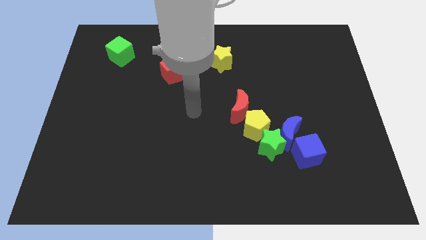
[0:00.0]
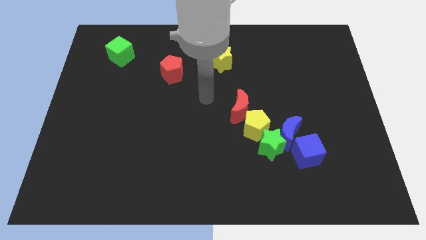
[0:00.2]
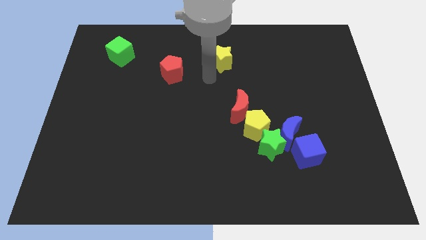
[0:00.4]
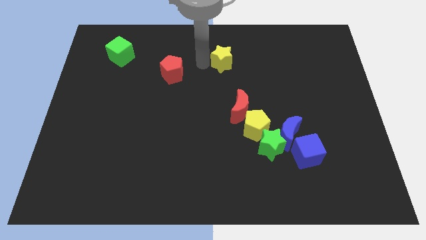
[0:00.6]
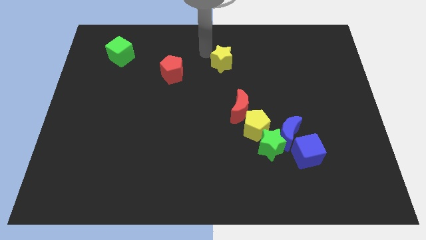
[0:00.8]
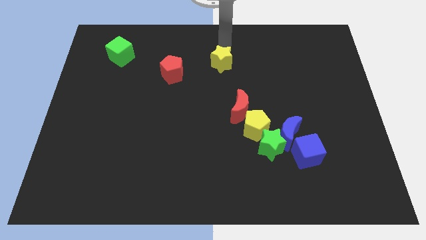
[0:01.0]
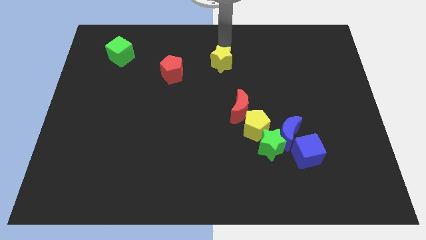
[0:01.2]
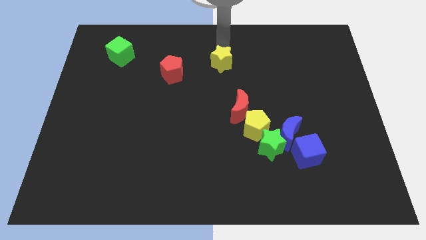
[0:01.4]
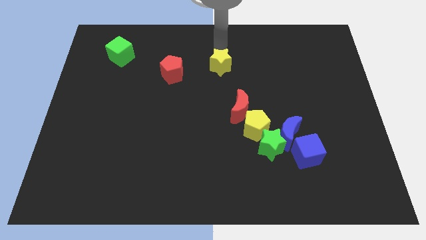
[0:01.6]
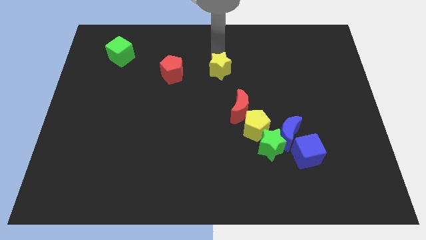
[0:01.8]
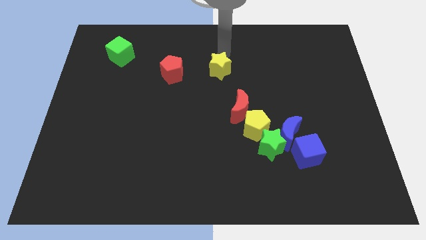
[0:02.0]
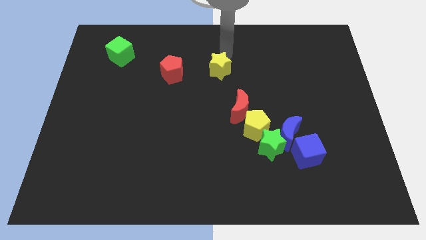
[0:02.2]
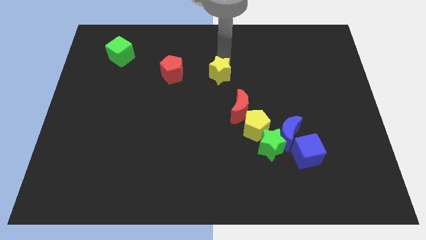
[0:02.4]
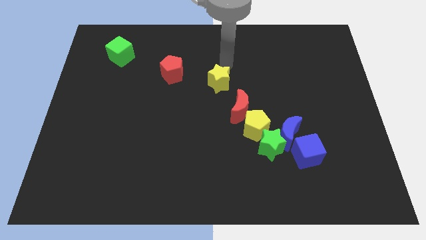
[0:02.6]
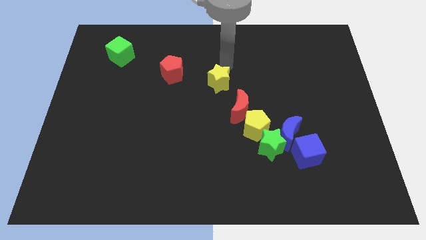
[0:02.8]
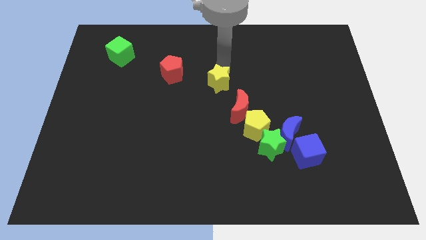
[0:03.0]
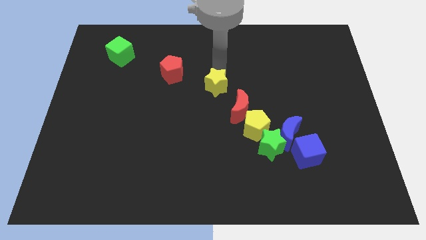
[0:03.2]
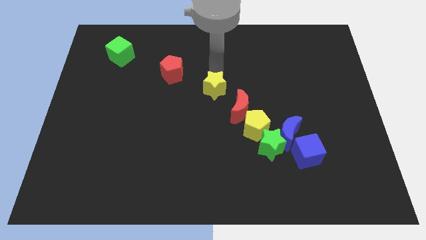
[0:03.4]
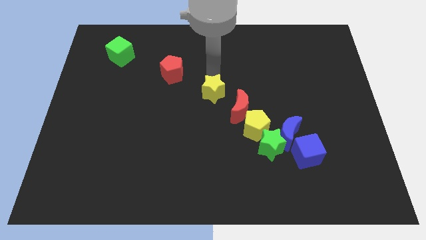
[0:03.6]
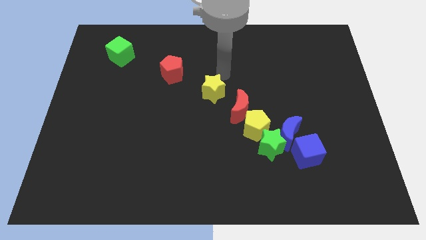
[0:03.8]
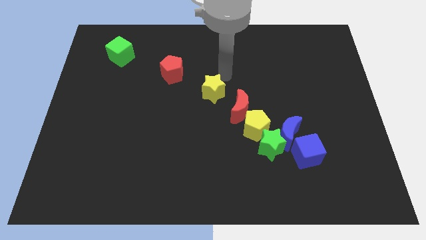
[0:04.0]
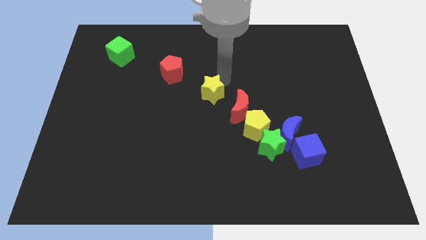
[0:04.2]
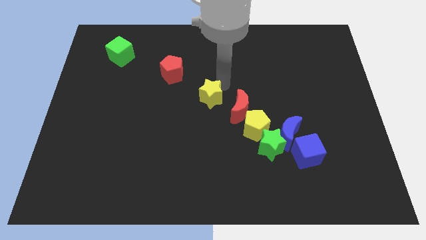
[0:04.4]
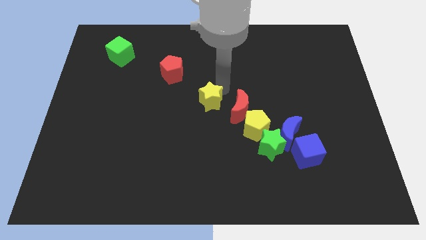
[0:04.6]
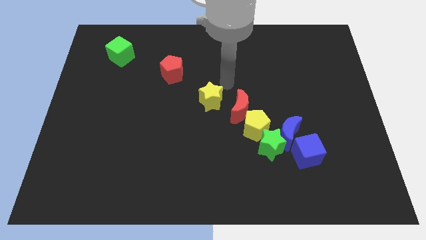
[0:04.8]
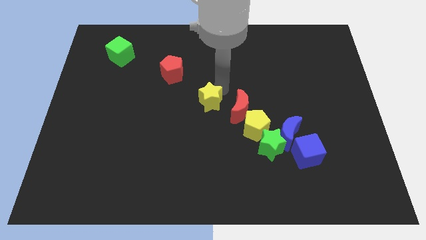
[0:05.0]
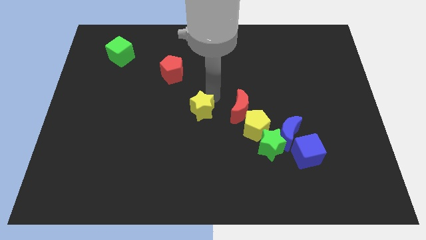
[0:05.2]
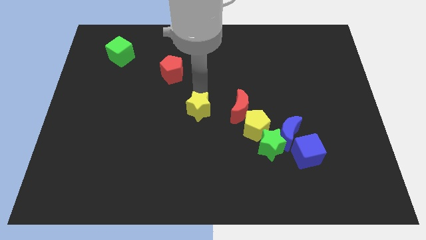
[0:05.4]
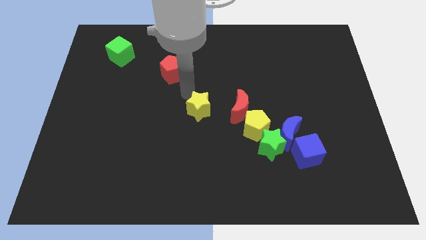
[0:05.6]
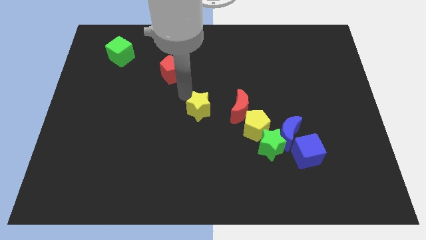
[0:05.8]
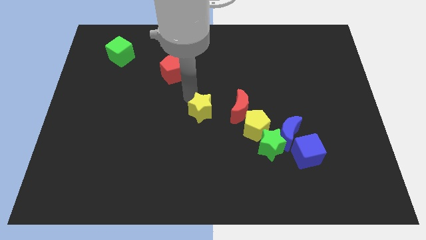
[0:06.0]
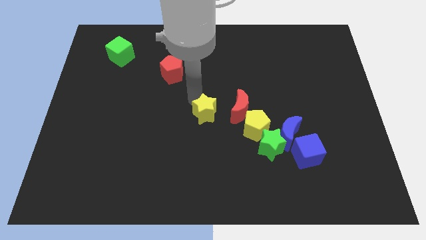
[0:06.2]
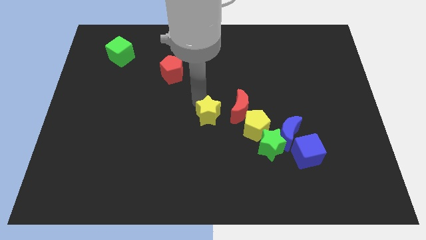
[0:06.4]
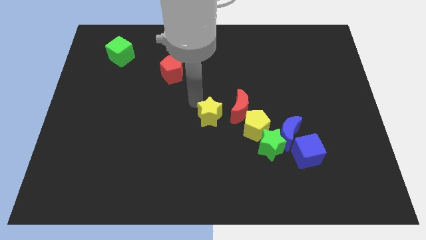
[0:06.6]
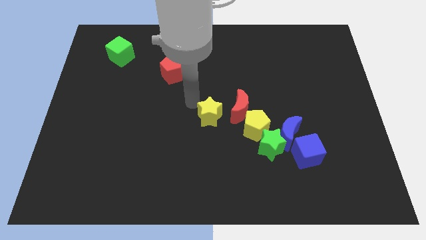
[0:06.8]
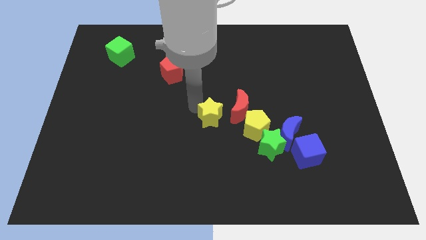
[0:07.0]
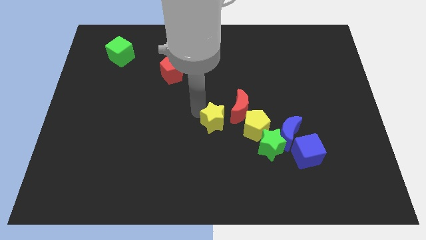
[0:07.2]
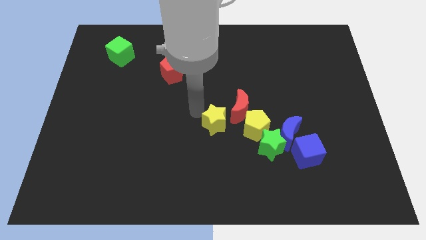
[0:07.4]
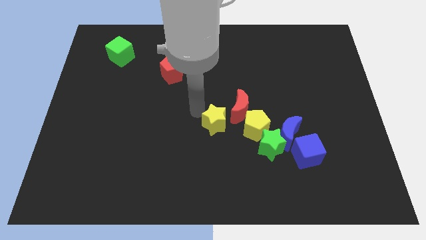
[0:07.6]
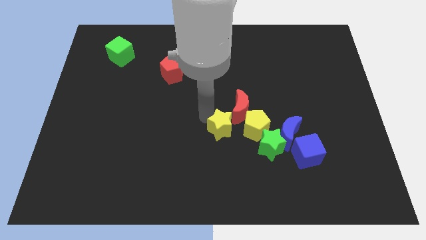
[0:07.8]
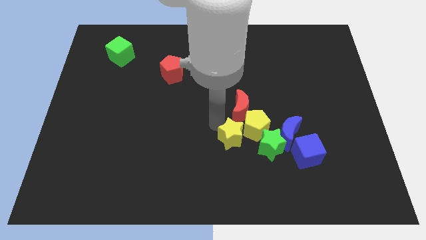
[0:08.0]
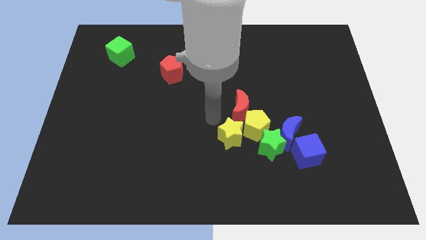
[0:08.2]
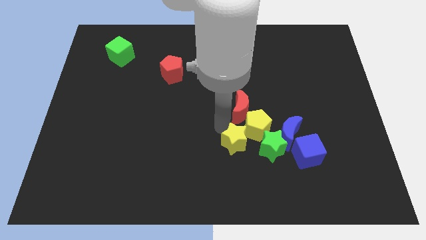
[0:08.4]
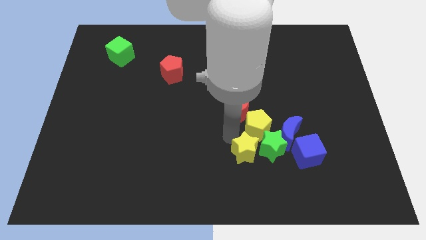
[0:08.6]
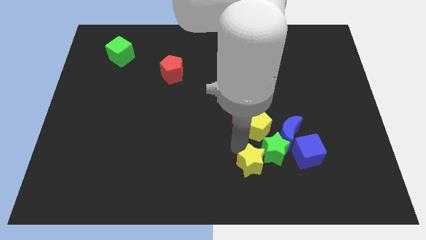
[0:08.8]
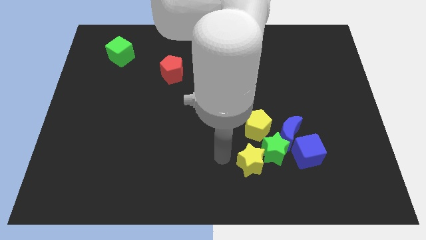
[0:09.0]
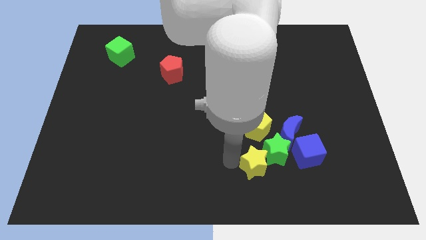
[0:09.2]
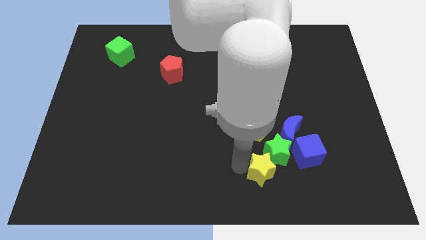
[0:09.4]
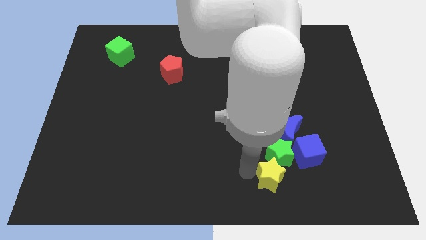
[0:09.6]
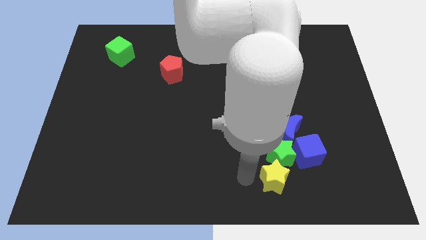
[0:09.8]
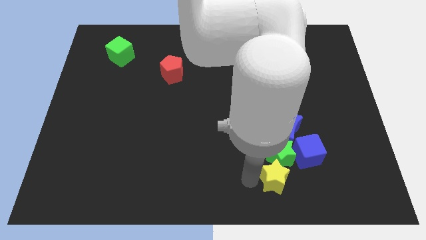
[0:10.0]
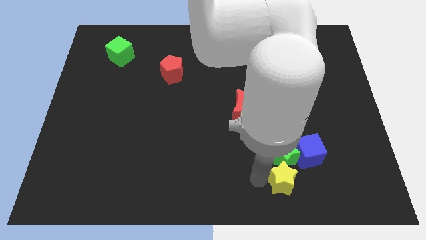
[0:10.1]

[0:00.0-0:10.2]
slide the yellow star to the bottom right of the green star

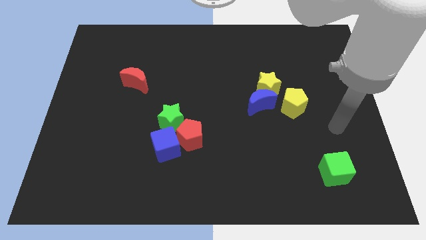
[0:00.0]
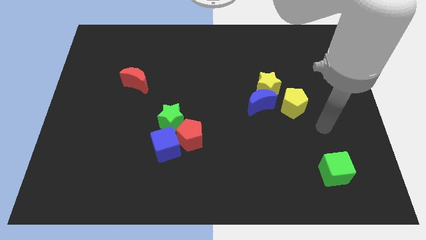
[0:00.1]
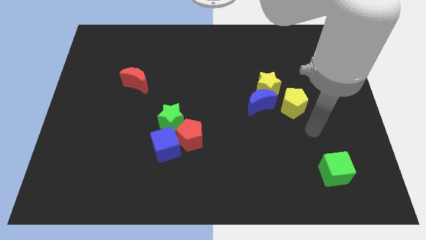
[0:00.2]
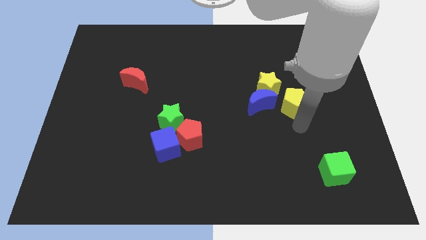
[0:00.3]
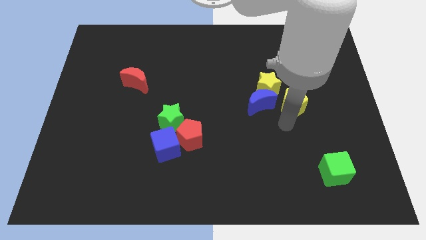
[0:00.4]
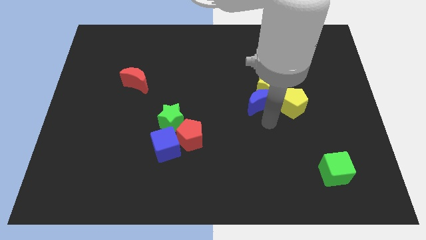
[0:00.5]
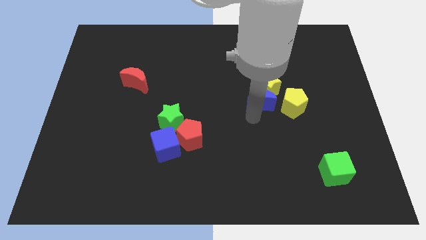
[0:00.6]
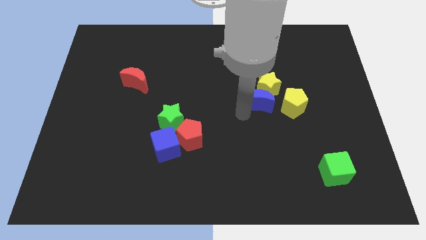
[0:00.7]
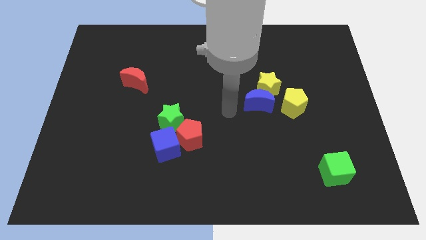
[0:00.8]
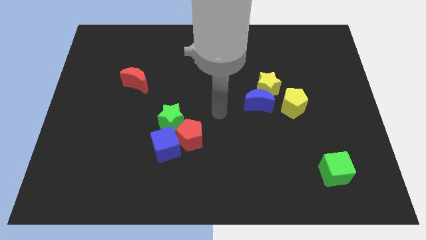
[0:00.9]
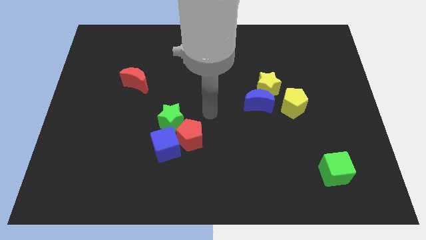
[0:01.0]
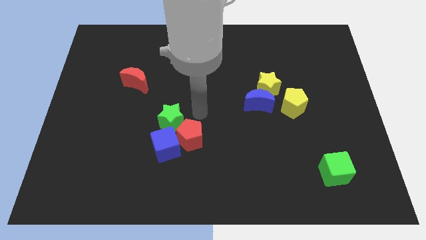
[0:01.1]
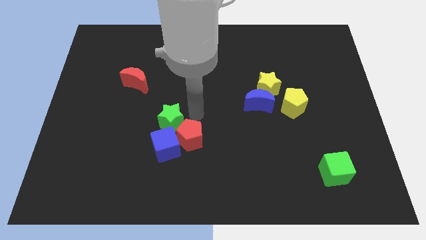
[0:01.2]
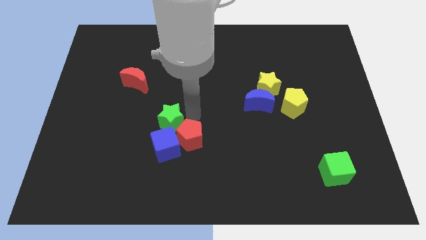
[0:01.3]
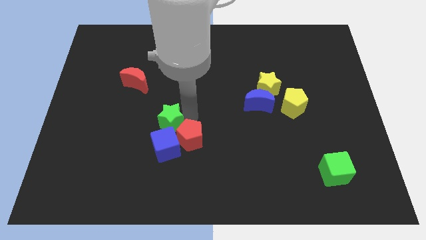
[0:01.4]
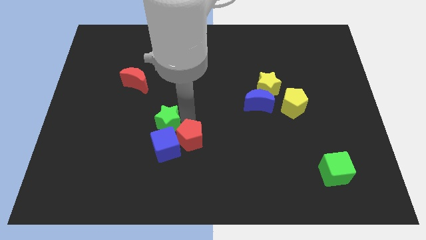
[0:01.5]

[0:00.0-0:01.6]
put the green star to the top left of the blue cube
